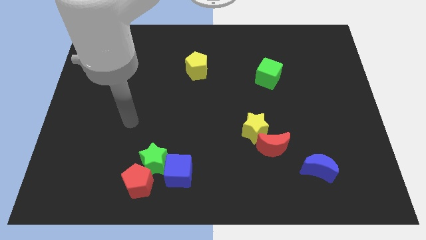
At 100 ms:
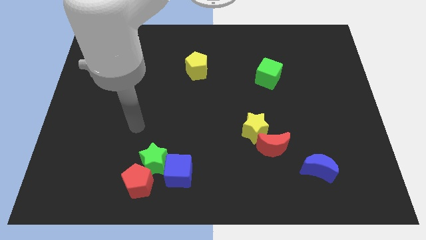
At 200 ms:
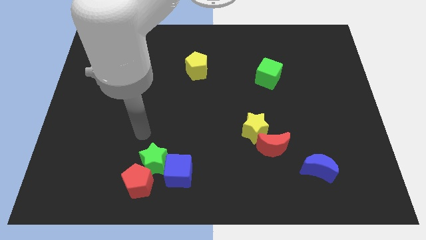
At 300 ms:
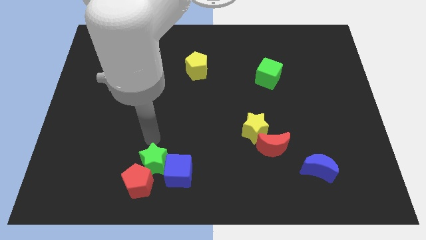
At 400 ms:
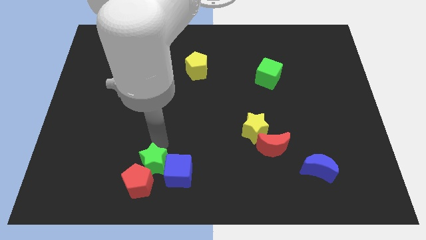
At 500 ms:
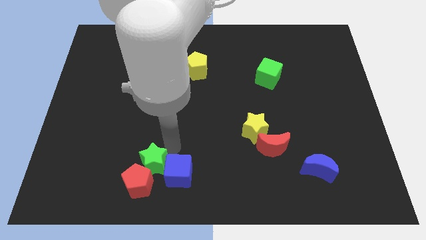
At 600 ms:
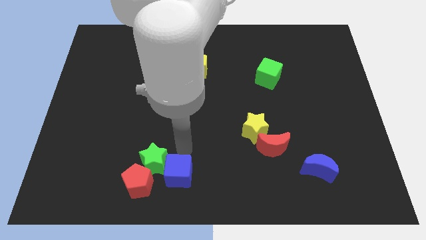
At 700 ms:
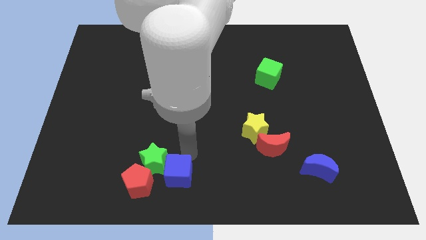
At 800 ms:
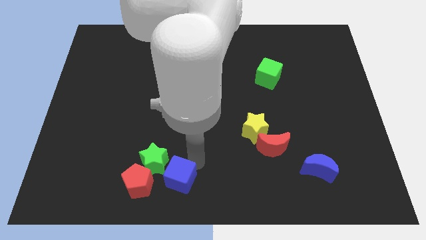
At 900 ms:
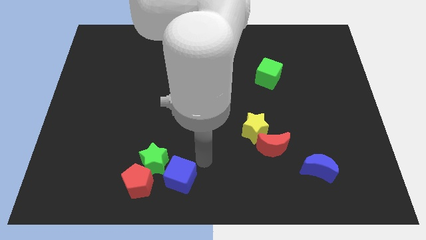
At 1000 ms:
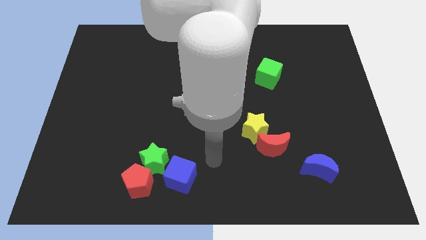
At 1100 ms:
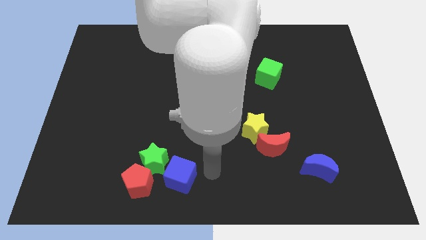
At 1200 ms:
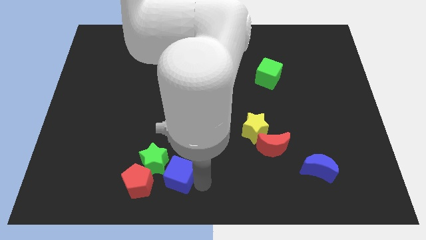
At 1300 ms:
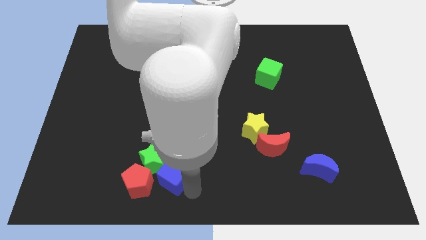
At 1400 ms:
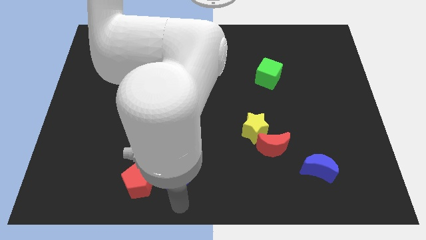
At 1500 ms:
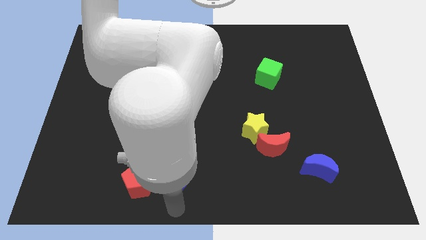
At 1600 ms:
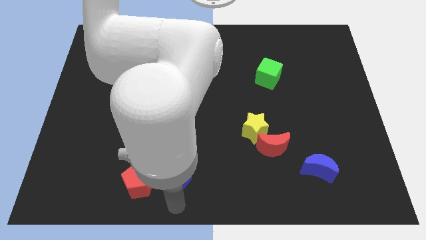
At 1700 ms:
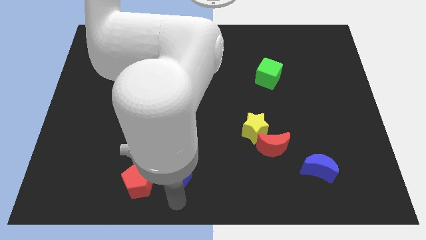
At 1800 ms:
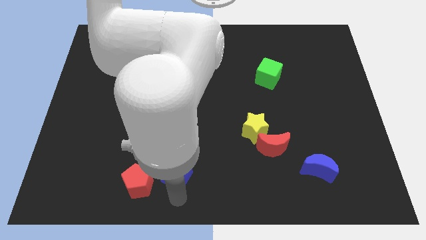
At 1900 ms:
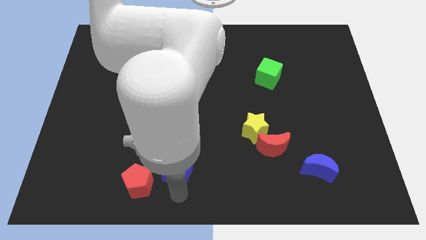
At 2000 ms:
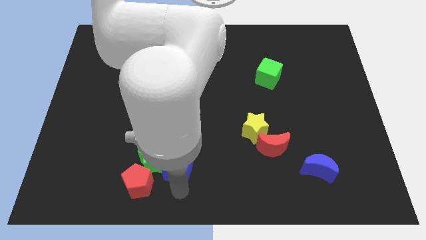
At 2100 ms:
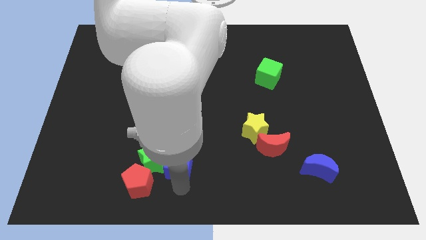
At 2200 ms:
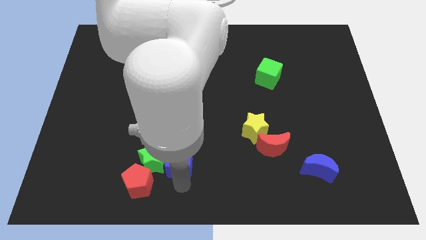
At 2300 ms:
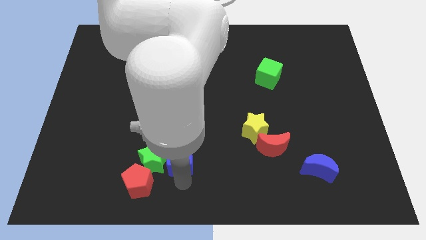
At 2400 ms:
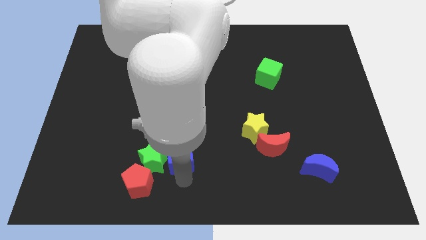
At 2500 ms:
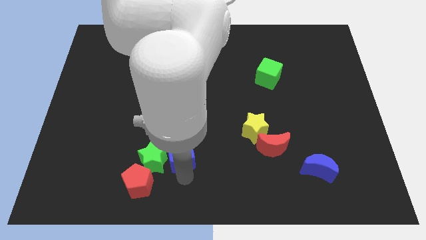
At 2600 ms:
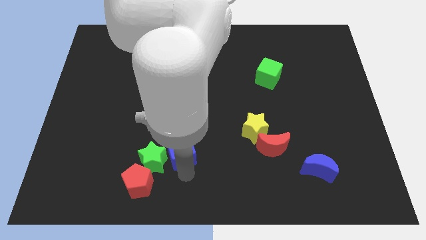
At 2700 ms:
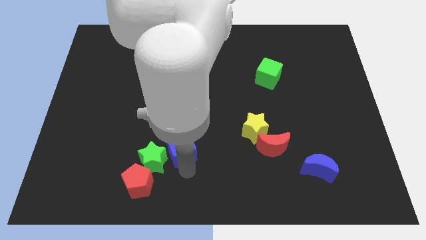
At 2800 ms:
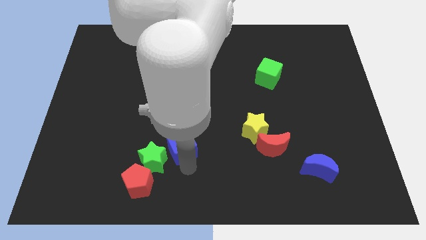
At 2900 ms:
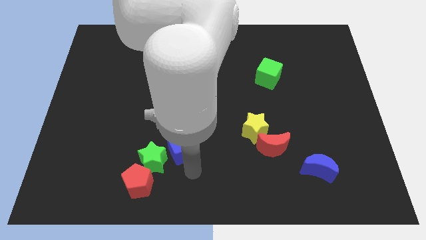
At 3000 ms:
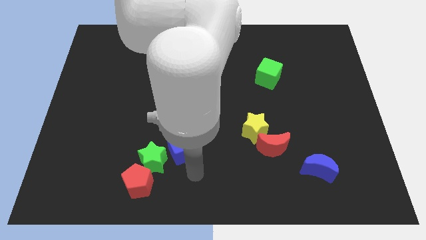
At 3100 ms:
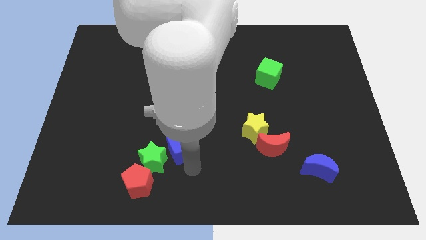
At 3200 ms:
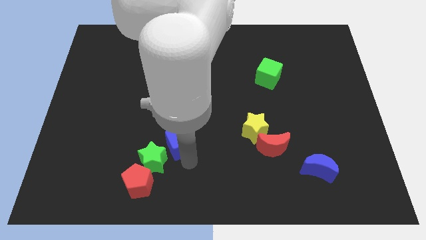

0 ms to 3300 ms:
slightly move the blue cube up

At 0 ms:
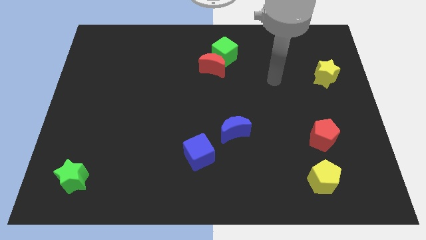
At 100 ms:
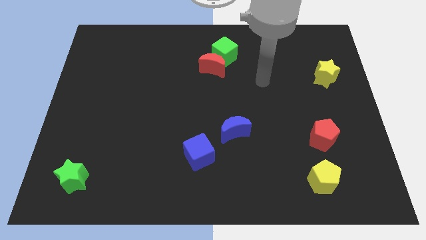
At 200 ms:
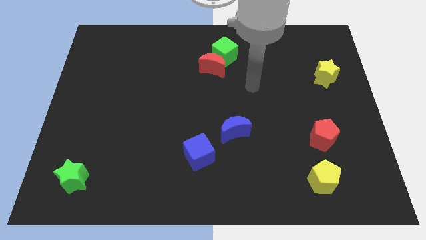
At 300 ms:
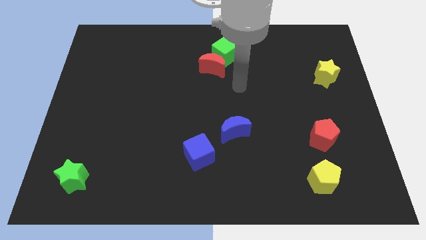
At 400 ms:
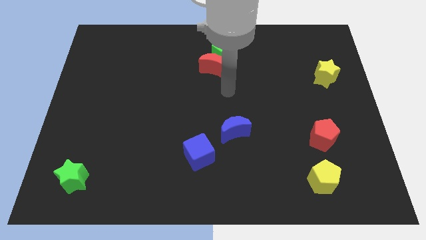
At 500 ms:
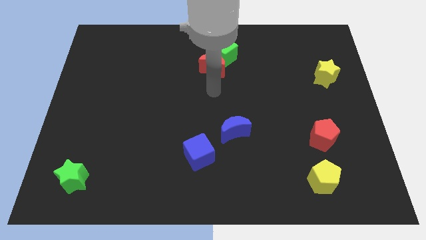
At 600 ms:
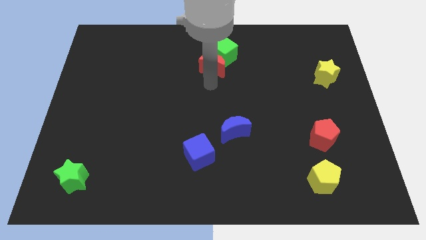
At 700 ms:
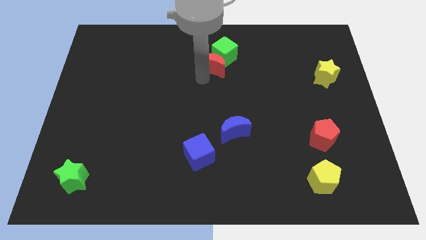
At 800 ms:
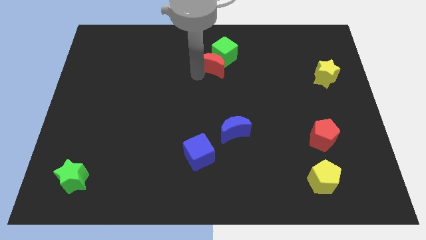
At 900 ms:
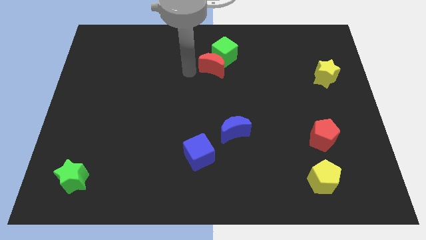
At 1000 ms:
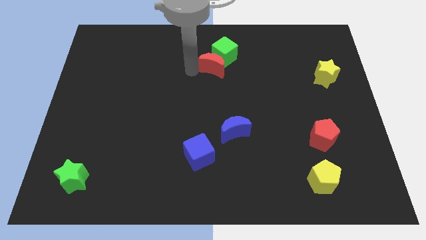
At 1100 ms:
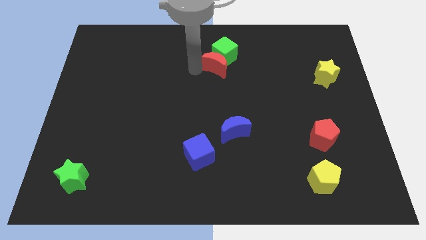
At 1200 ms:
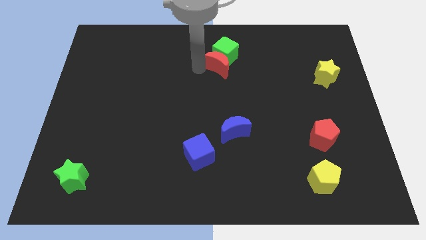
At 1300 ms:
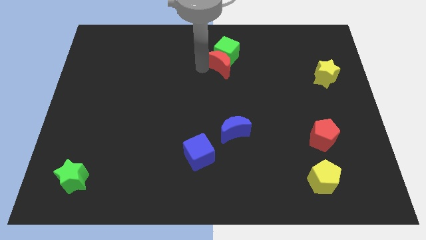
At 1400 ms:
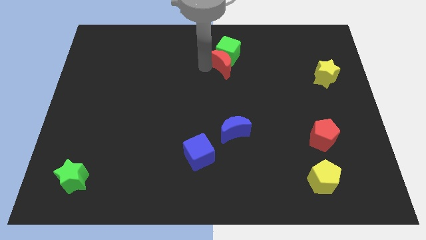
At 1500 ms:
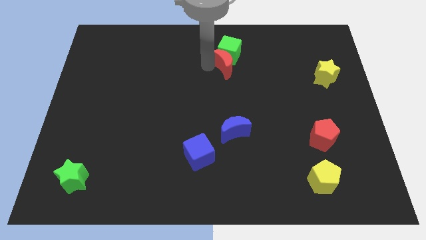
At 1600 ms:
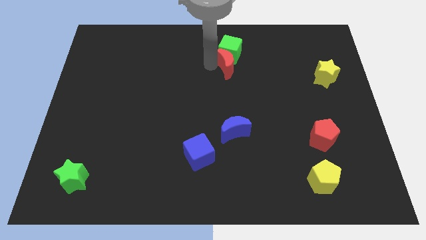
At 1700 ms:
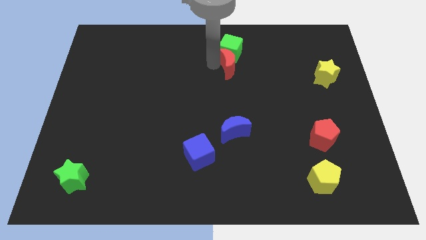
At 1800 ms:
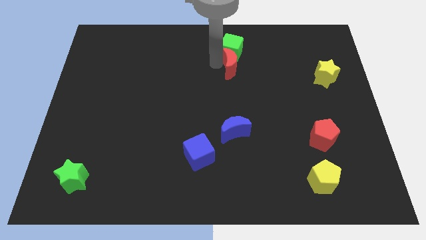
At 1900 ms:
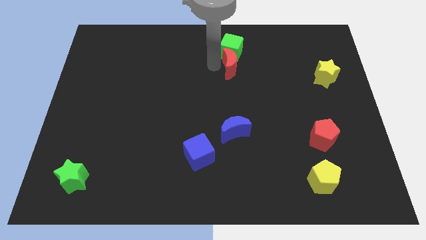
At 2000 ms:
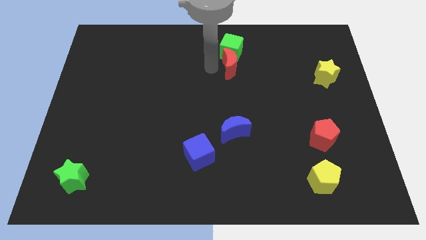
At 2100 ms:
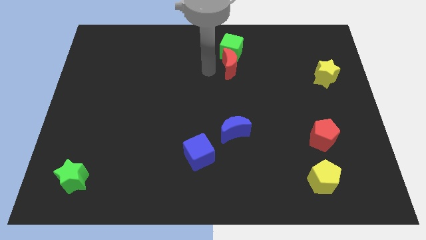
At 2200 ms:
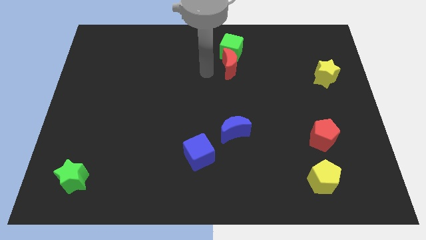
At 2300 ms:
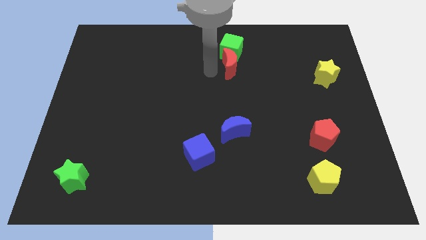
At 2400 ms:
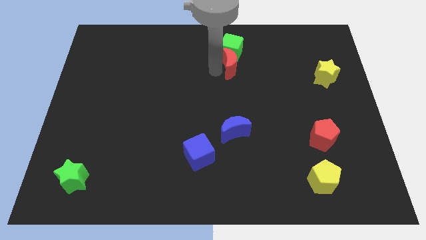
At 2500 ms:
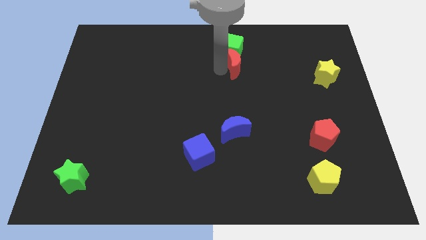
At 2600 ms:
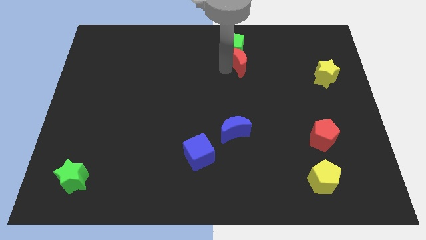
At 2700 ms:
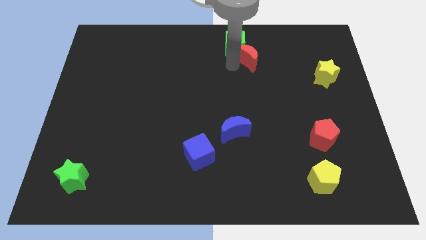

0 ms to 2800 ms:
slightly move the red moon right

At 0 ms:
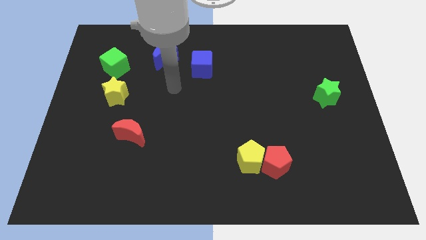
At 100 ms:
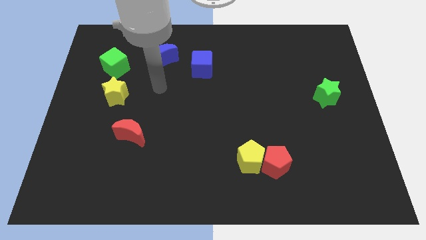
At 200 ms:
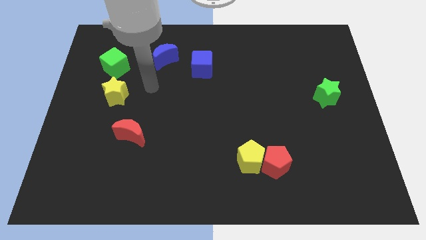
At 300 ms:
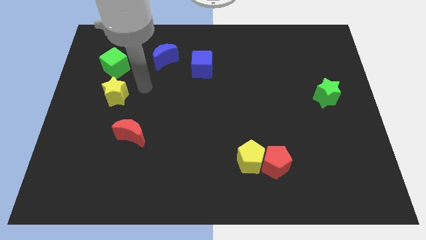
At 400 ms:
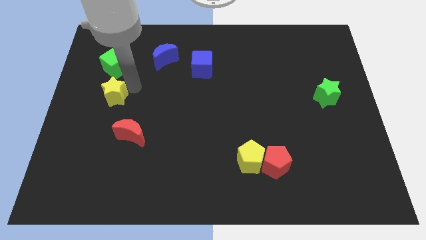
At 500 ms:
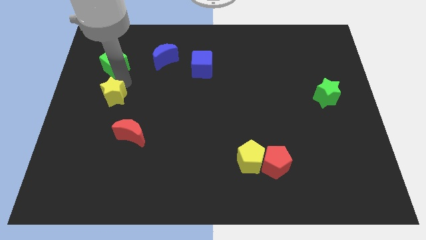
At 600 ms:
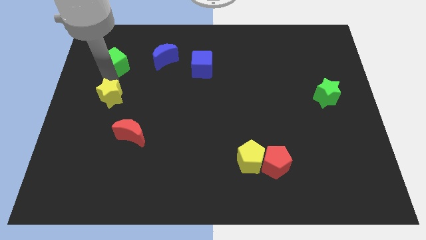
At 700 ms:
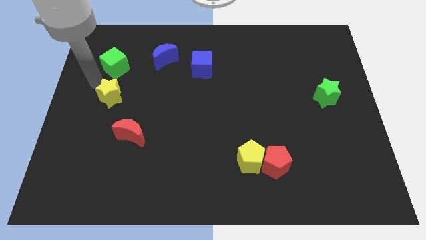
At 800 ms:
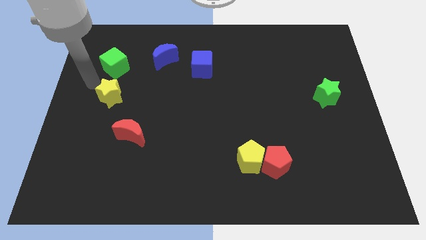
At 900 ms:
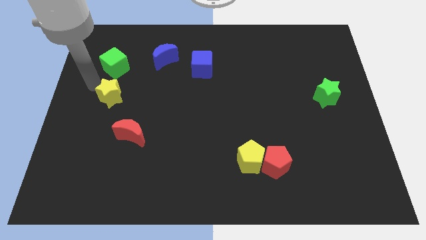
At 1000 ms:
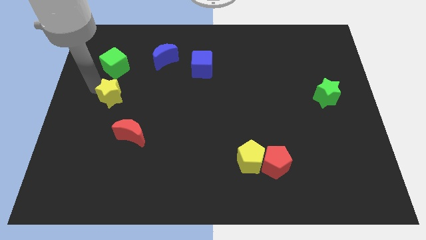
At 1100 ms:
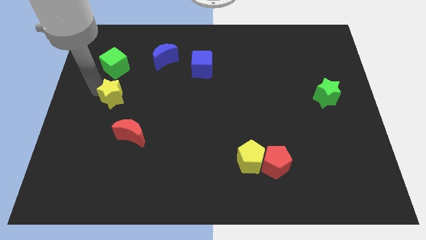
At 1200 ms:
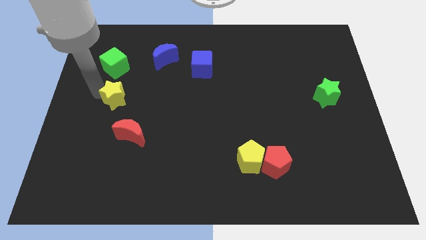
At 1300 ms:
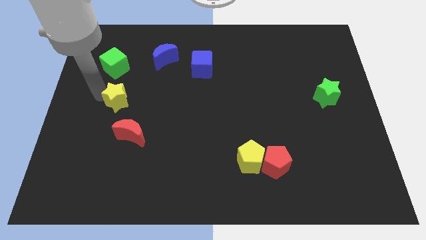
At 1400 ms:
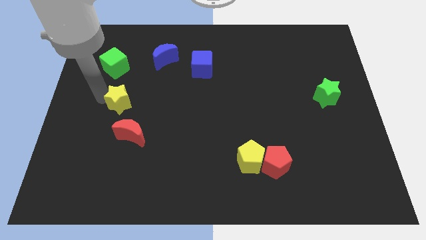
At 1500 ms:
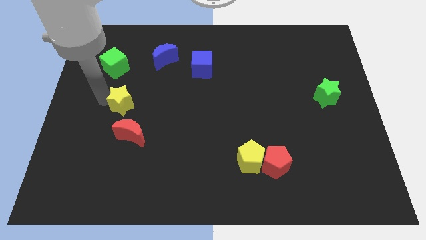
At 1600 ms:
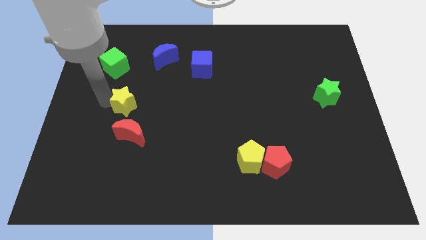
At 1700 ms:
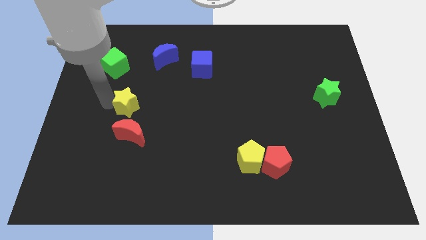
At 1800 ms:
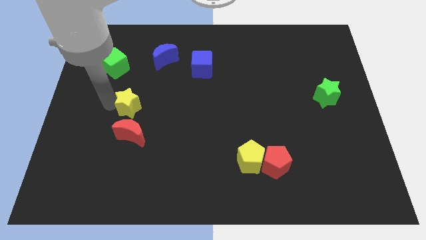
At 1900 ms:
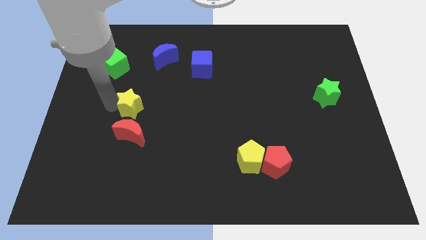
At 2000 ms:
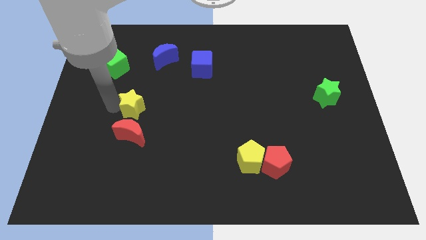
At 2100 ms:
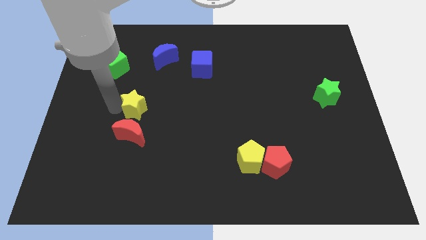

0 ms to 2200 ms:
move the yellow star down and right diagonally slightly
